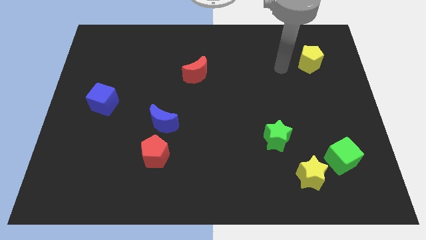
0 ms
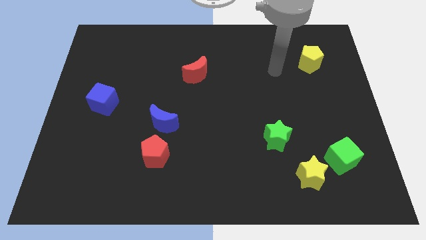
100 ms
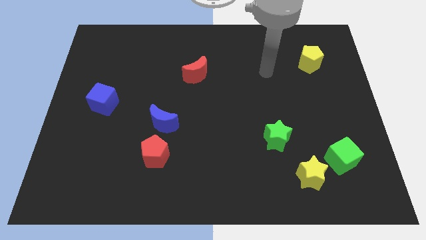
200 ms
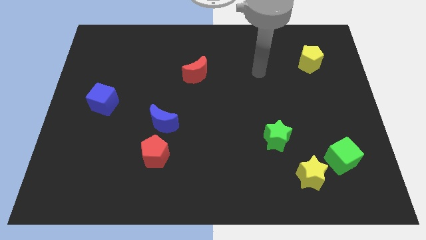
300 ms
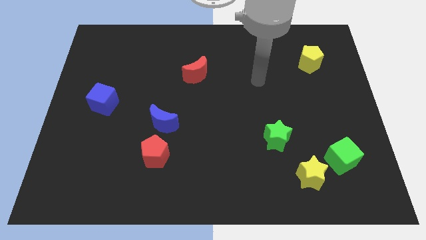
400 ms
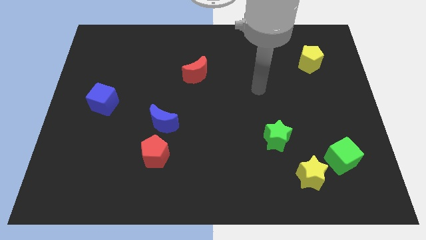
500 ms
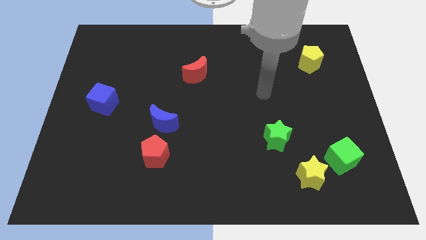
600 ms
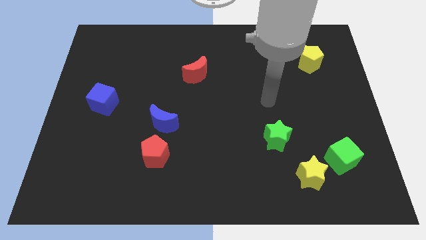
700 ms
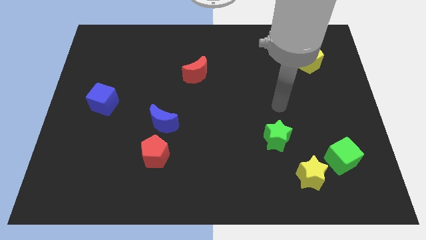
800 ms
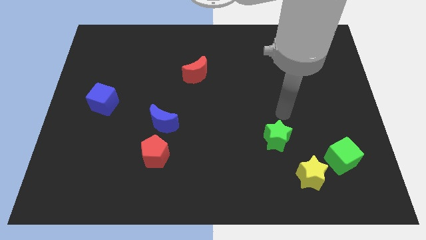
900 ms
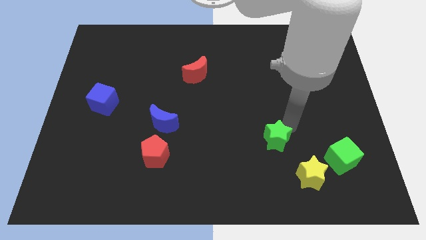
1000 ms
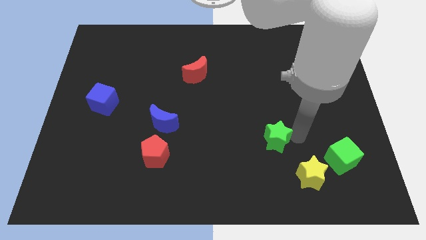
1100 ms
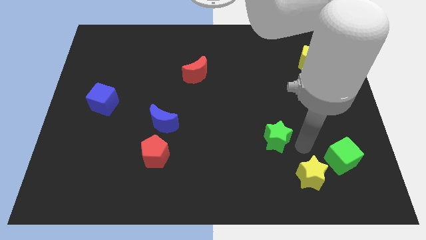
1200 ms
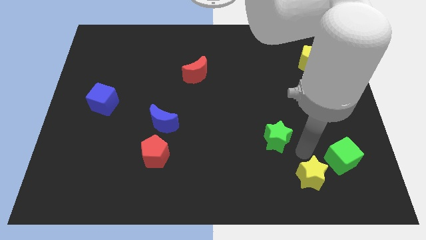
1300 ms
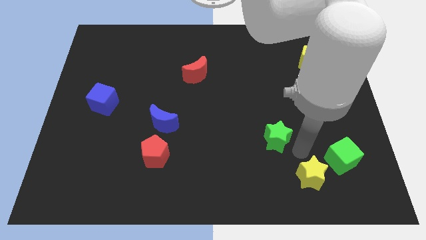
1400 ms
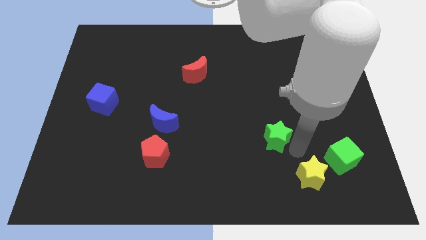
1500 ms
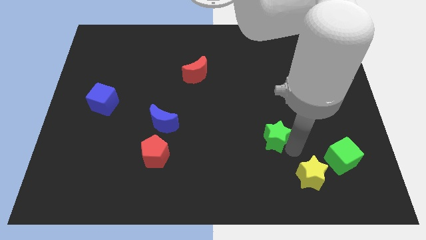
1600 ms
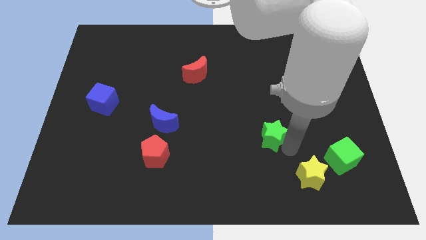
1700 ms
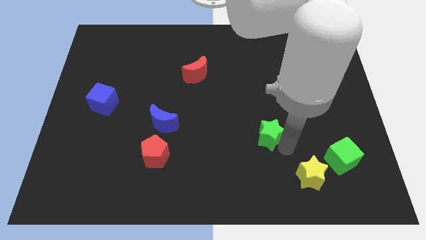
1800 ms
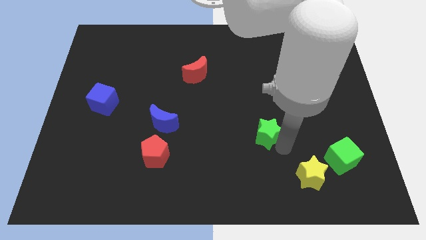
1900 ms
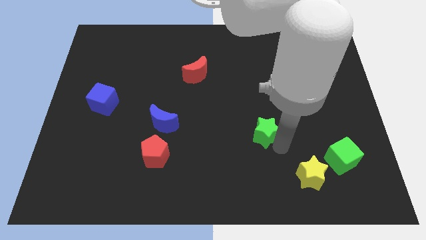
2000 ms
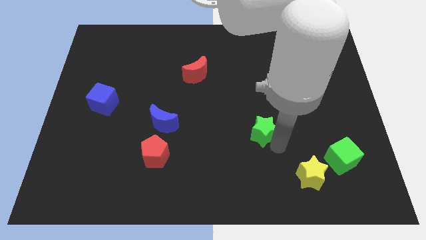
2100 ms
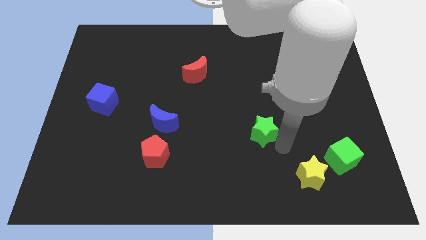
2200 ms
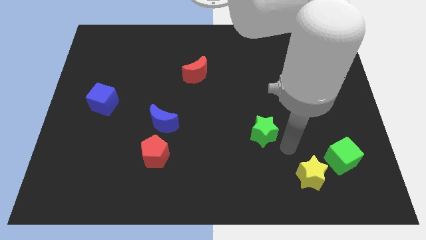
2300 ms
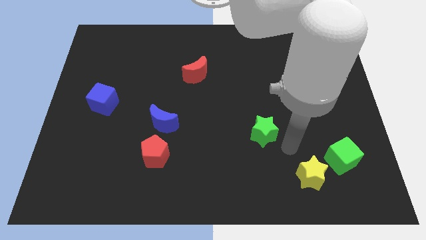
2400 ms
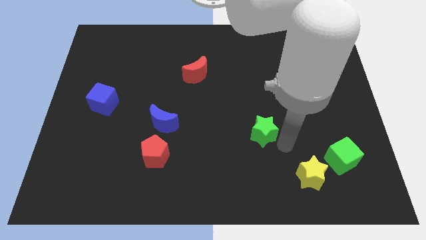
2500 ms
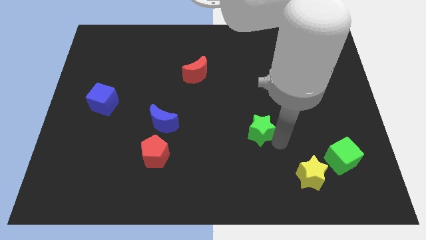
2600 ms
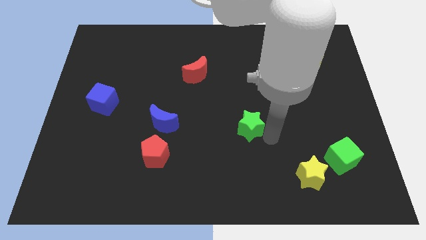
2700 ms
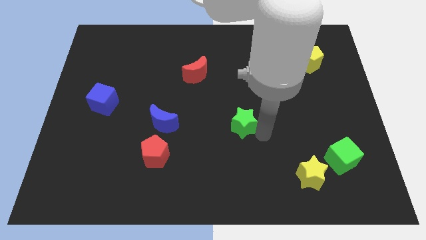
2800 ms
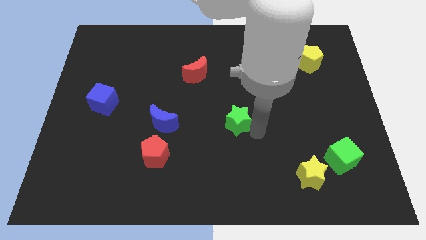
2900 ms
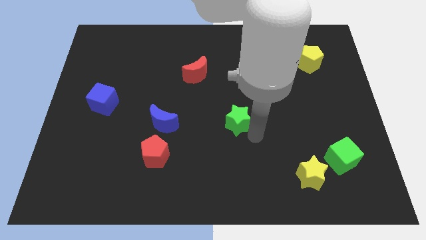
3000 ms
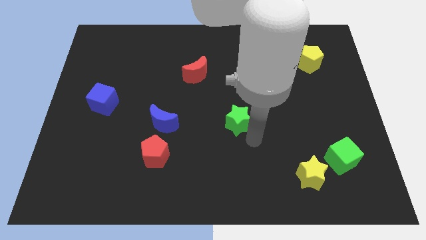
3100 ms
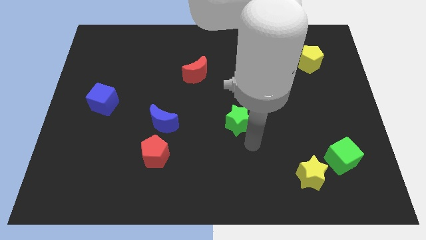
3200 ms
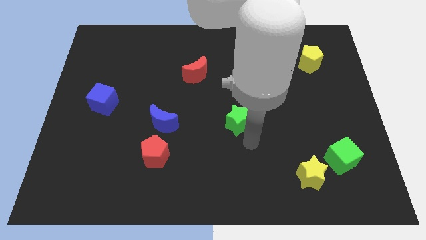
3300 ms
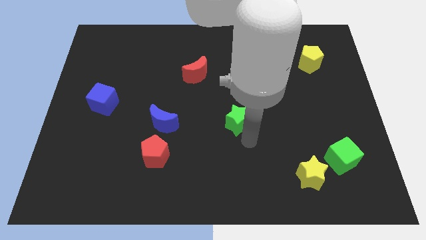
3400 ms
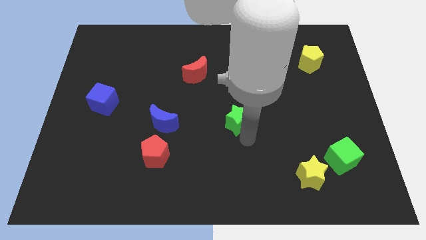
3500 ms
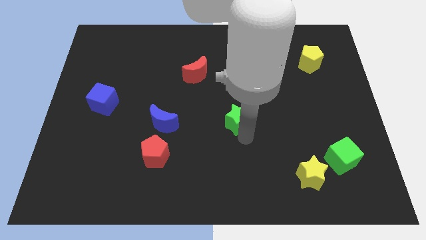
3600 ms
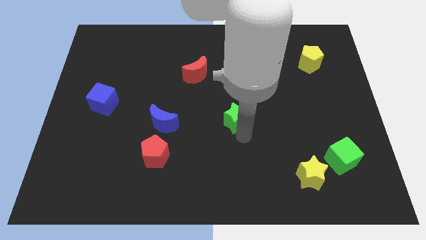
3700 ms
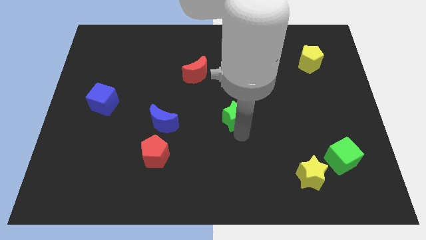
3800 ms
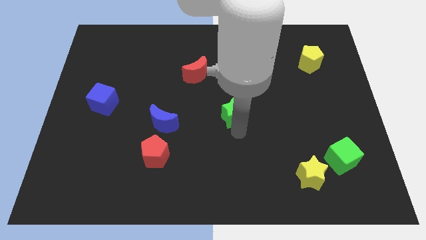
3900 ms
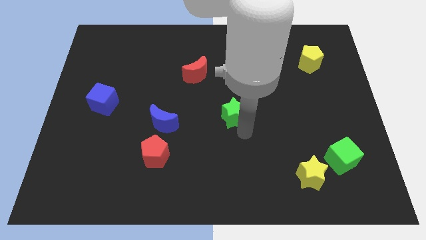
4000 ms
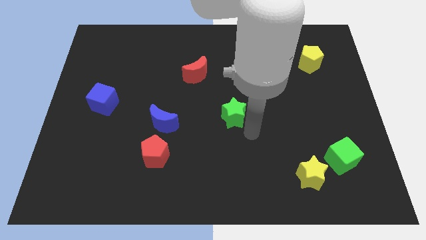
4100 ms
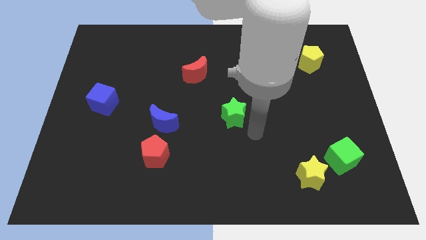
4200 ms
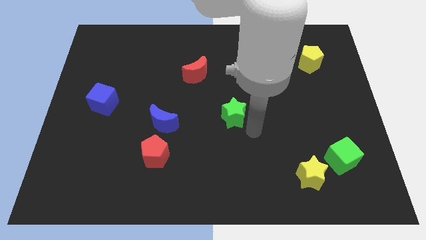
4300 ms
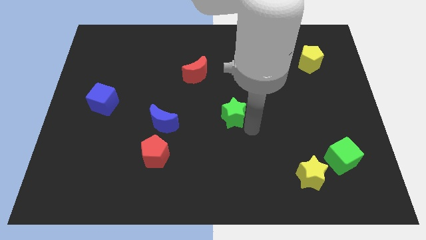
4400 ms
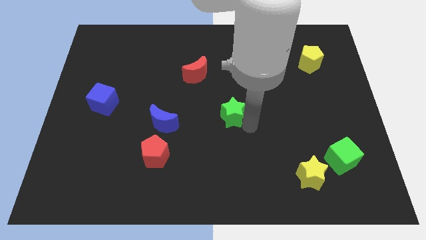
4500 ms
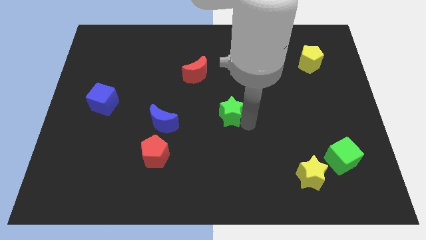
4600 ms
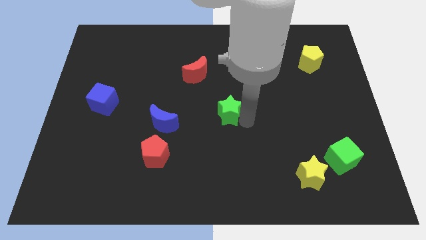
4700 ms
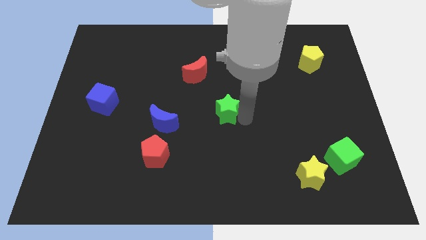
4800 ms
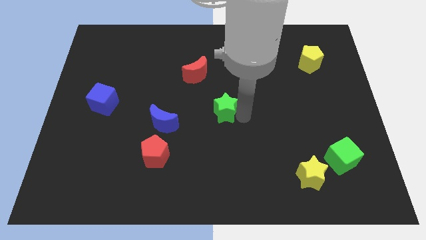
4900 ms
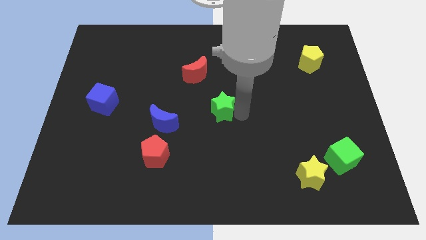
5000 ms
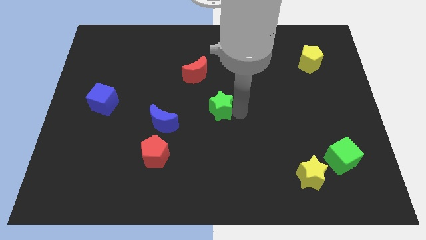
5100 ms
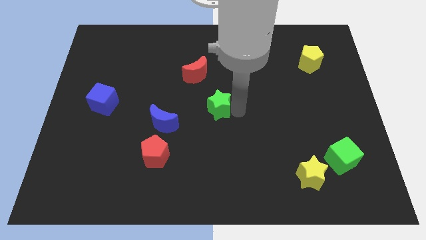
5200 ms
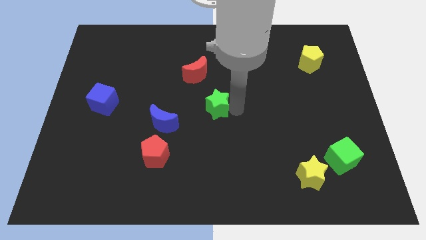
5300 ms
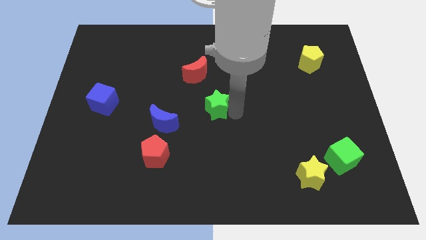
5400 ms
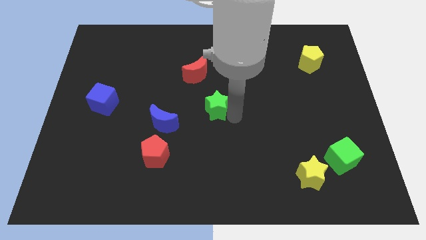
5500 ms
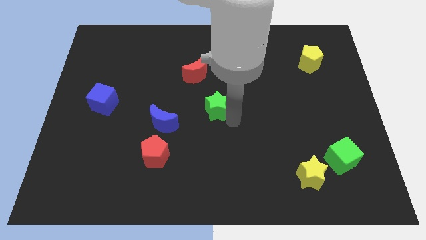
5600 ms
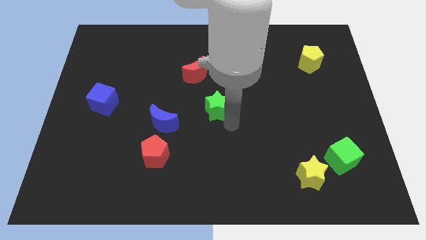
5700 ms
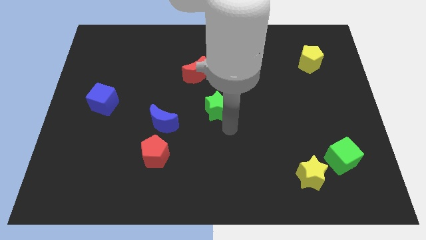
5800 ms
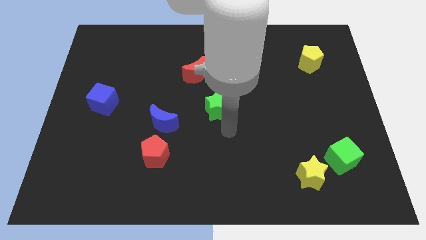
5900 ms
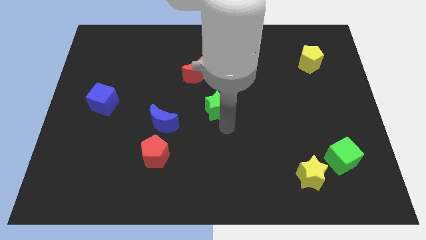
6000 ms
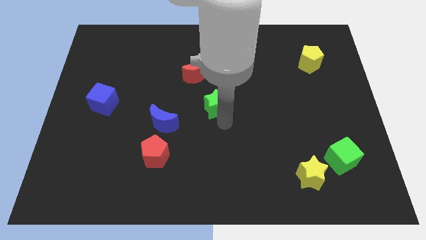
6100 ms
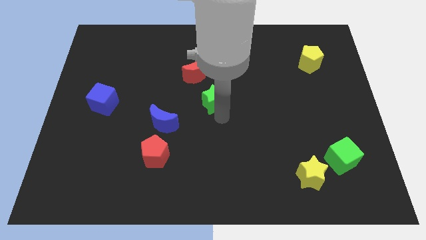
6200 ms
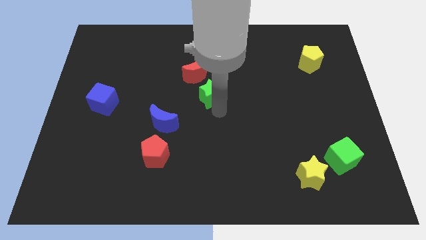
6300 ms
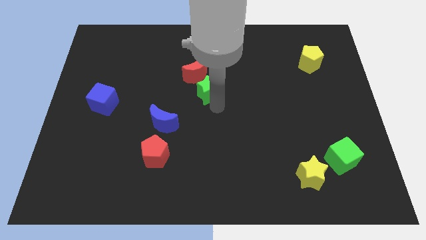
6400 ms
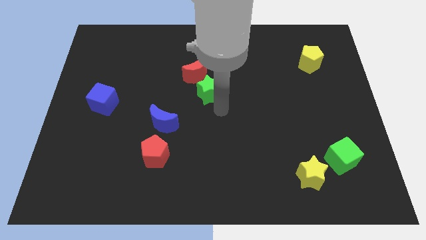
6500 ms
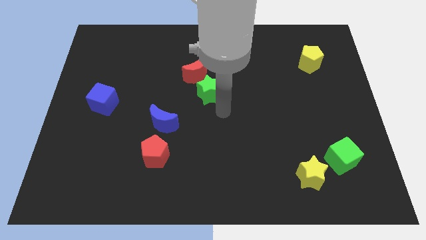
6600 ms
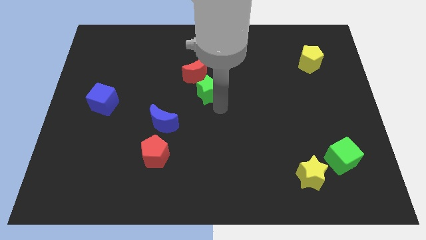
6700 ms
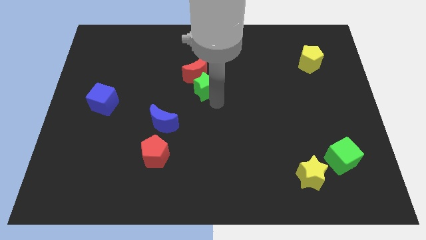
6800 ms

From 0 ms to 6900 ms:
move the green star close to the red moon

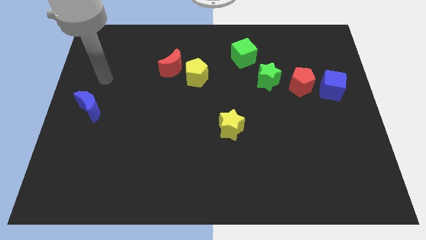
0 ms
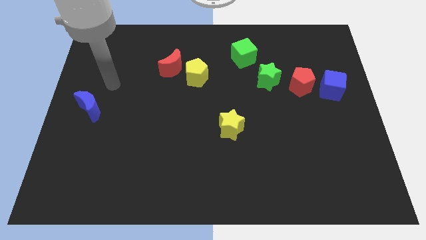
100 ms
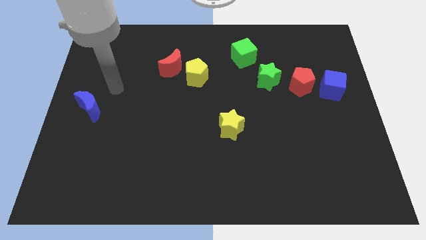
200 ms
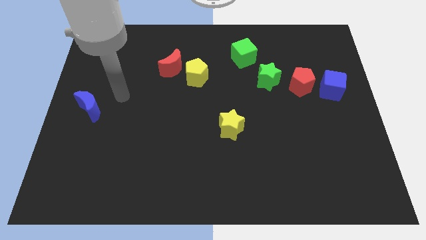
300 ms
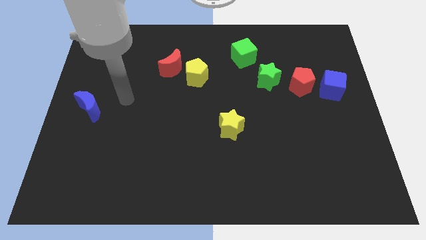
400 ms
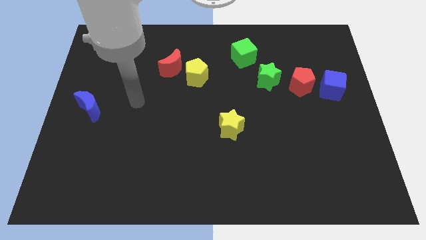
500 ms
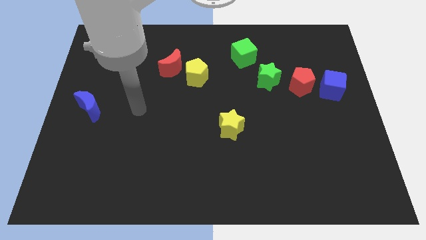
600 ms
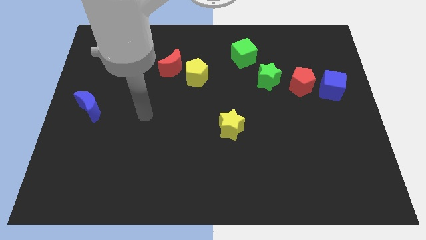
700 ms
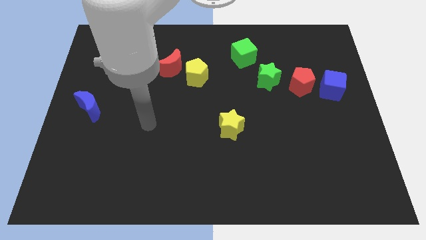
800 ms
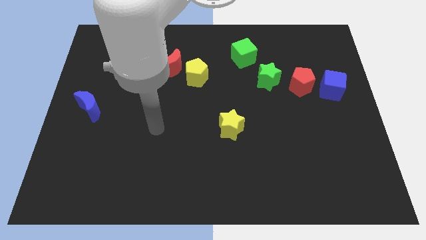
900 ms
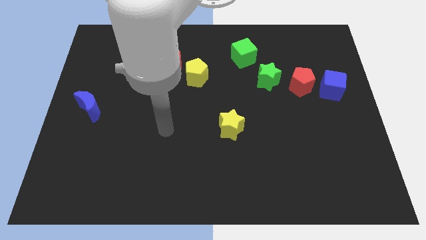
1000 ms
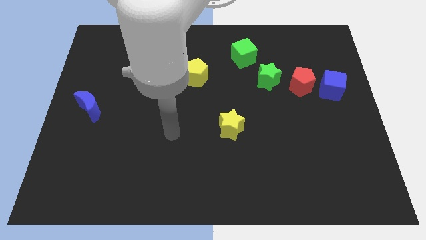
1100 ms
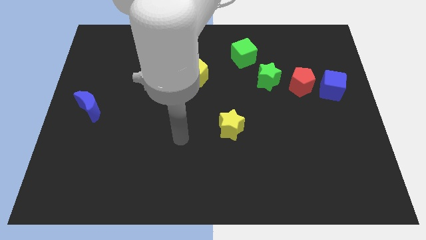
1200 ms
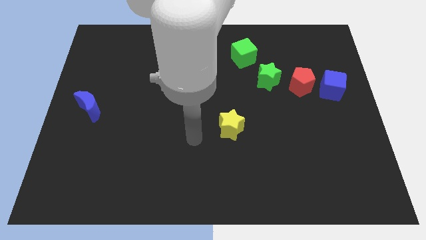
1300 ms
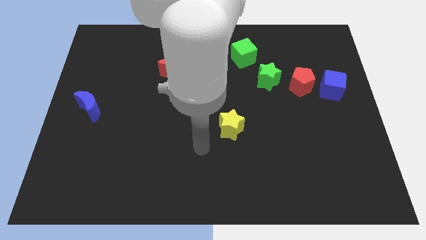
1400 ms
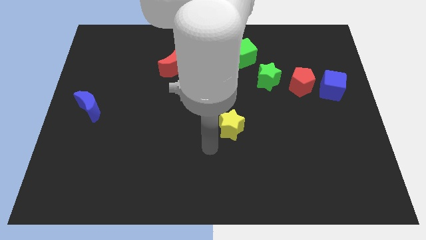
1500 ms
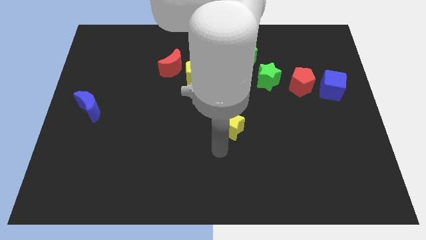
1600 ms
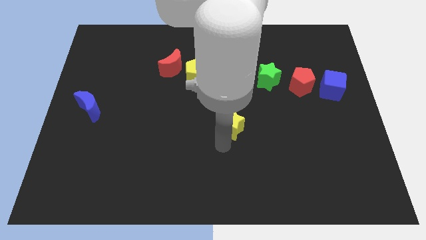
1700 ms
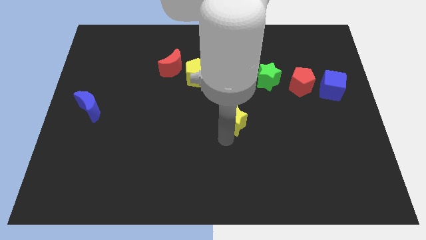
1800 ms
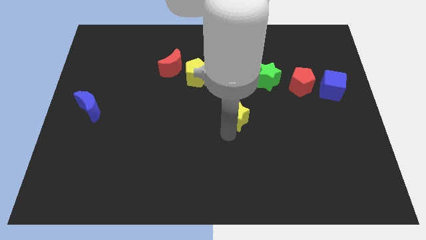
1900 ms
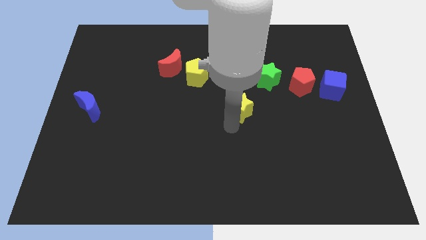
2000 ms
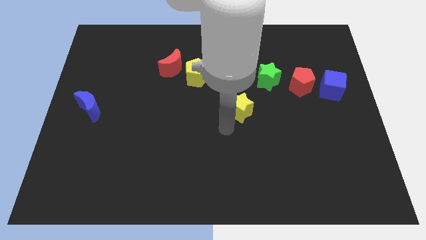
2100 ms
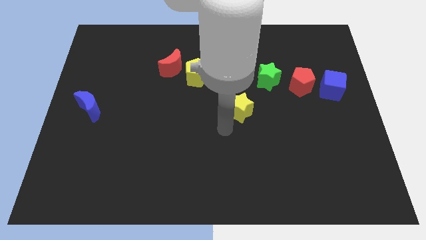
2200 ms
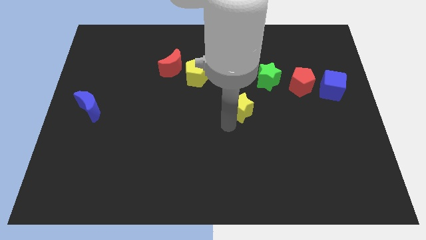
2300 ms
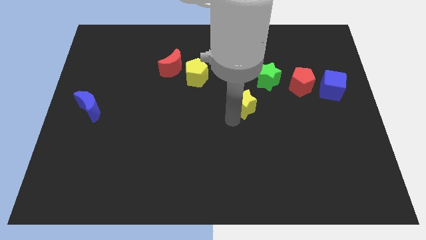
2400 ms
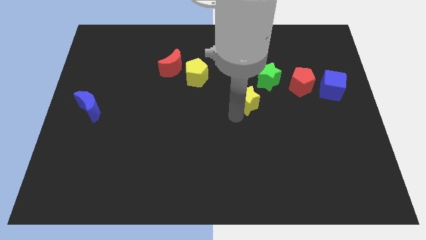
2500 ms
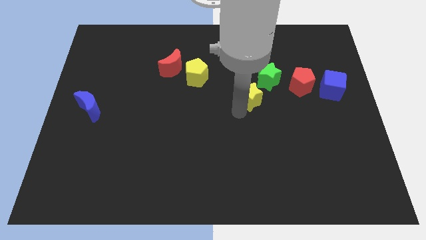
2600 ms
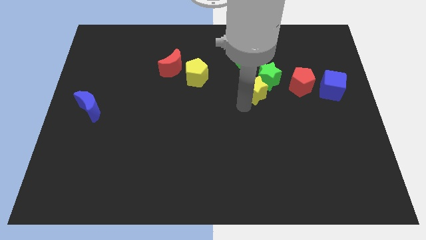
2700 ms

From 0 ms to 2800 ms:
push the yellow star to the green star
